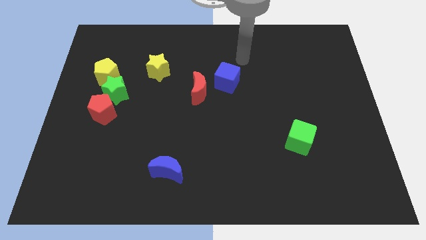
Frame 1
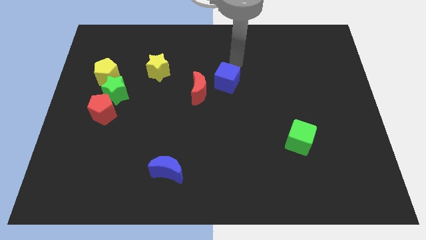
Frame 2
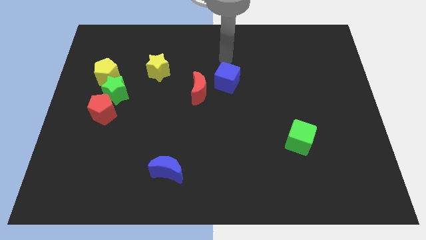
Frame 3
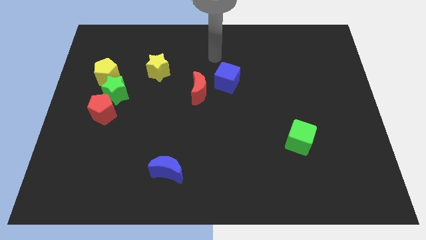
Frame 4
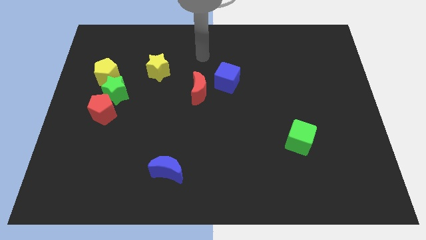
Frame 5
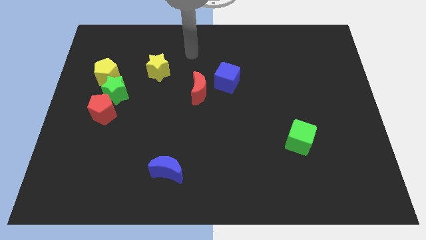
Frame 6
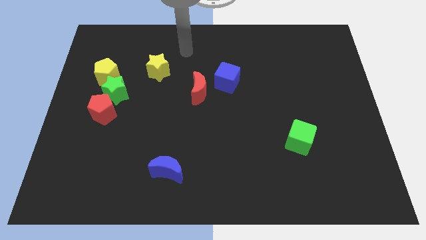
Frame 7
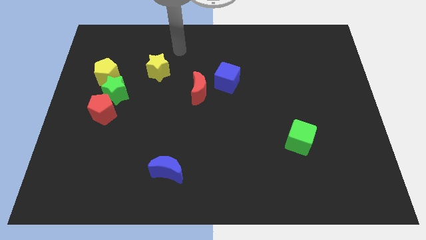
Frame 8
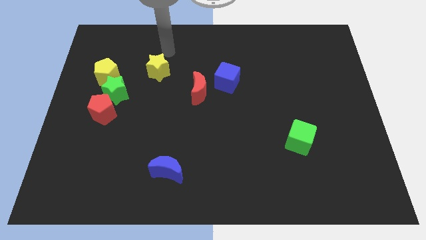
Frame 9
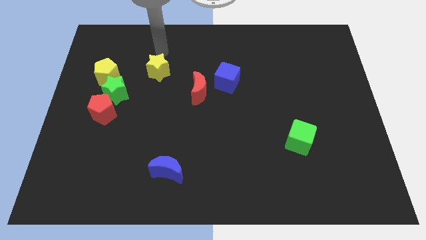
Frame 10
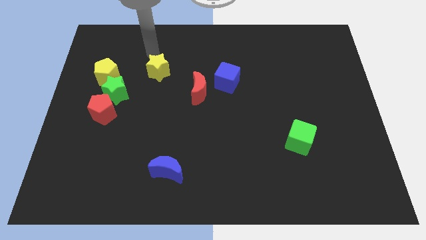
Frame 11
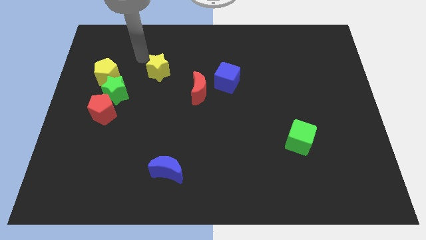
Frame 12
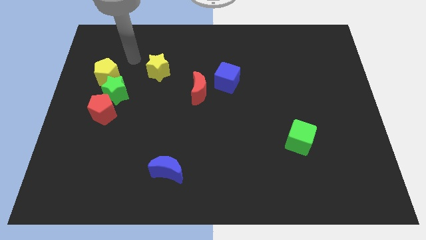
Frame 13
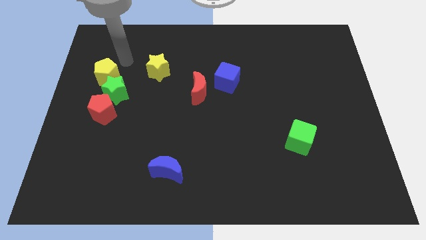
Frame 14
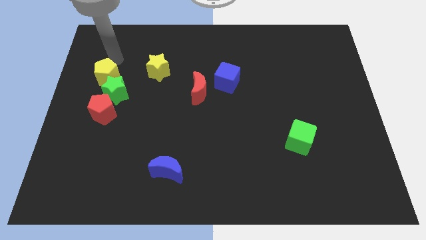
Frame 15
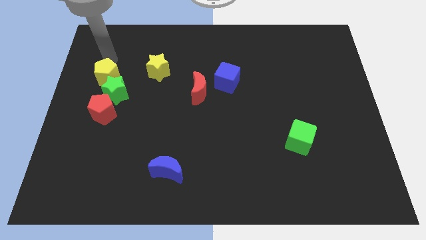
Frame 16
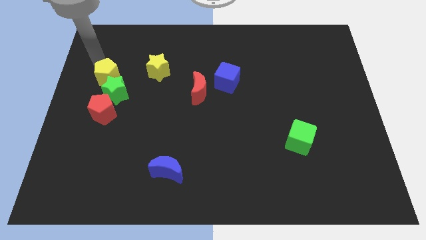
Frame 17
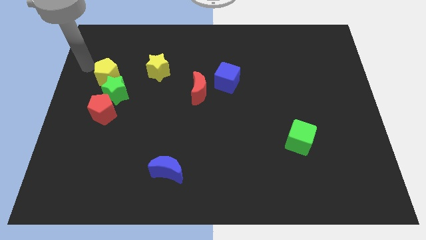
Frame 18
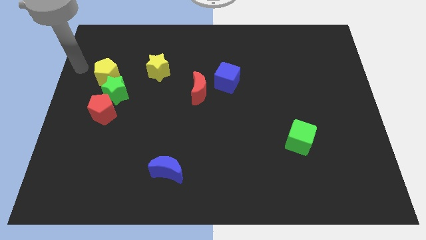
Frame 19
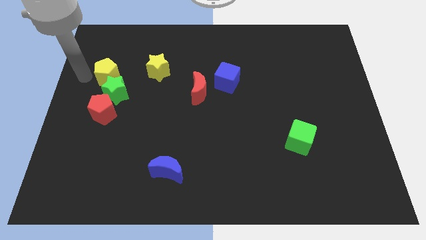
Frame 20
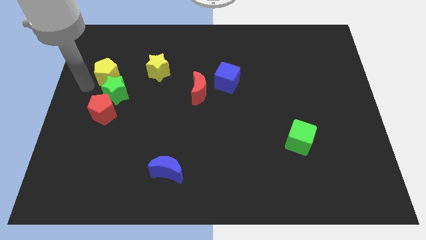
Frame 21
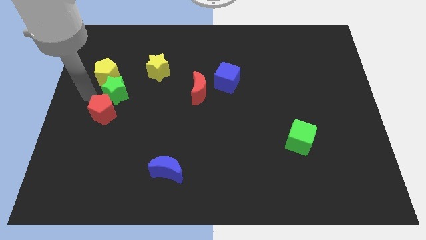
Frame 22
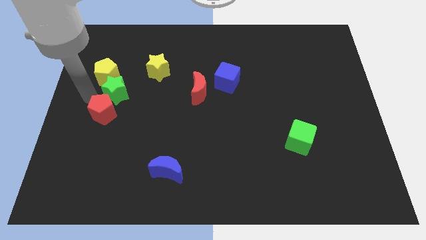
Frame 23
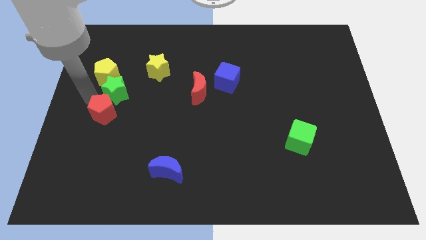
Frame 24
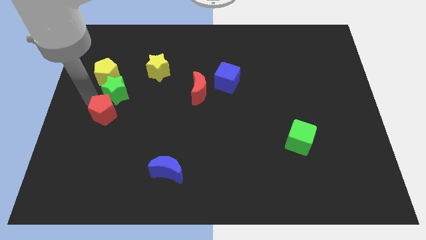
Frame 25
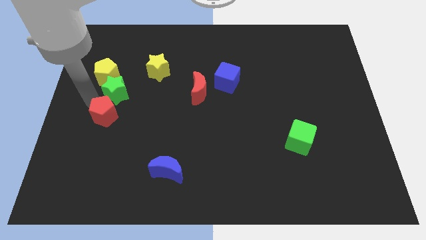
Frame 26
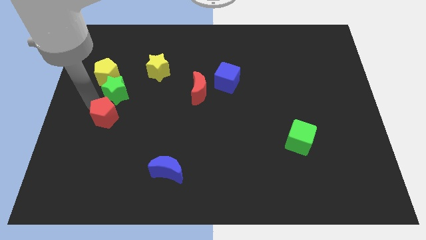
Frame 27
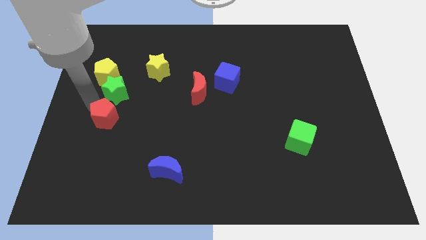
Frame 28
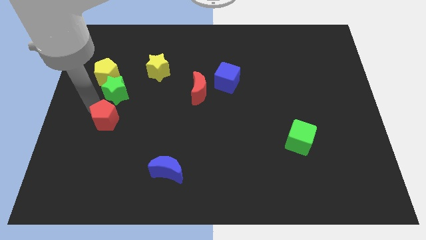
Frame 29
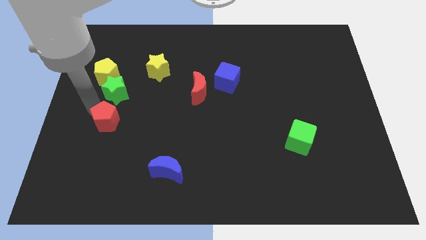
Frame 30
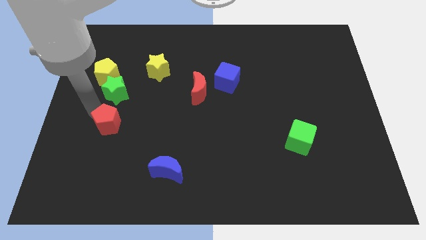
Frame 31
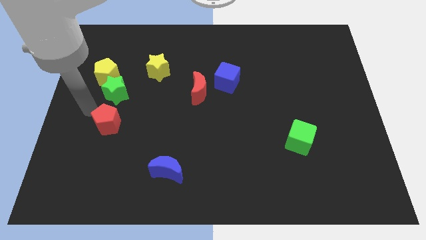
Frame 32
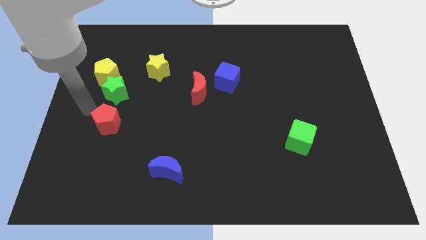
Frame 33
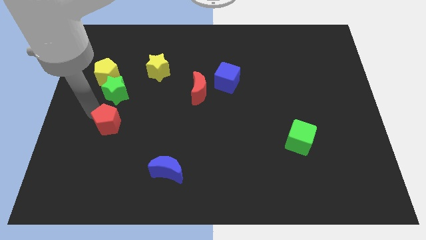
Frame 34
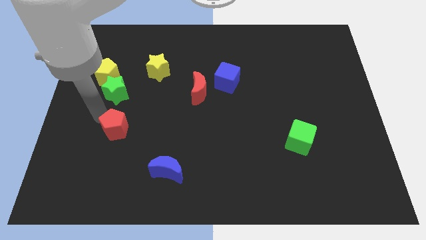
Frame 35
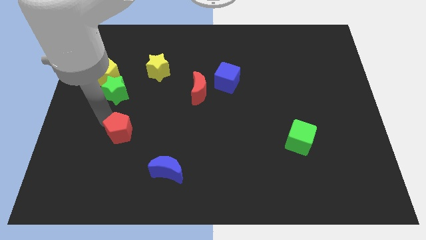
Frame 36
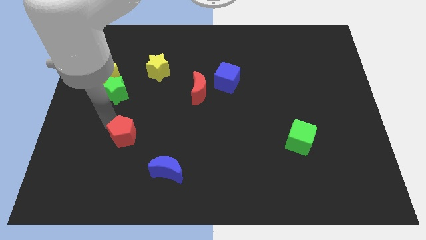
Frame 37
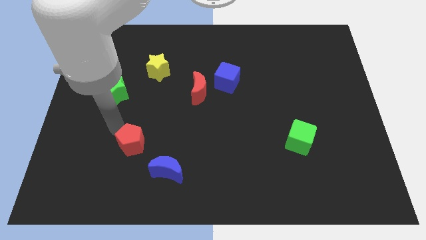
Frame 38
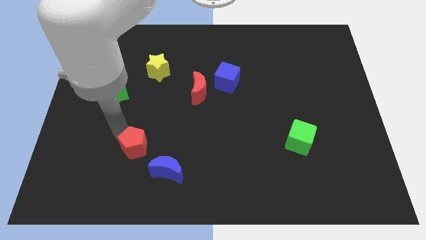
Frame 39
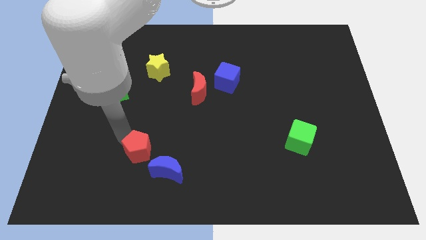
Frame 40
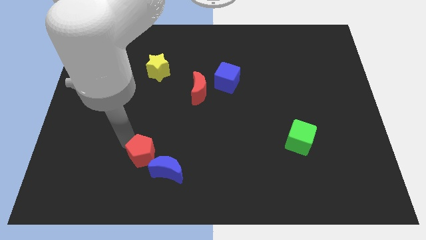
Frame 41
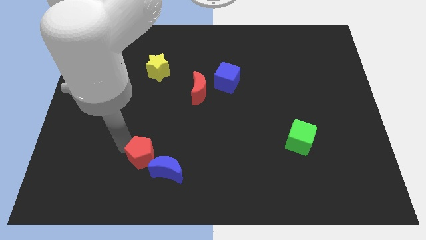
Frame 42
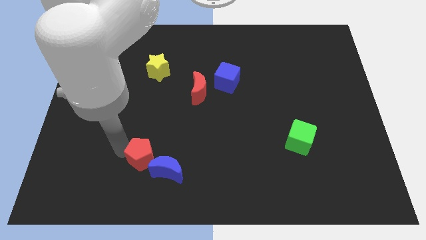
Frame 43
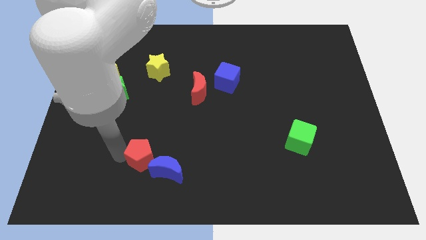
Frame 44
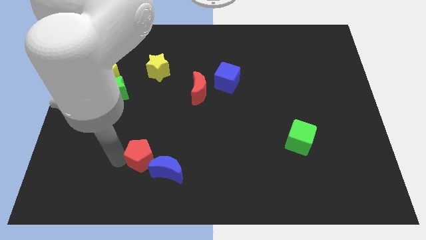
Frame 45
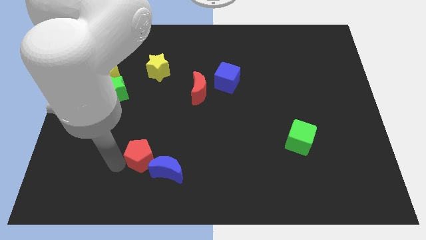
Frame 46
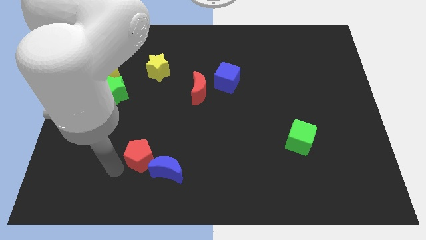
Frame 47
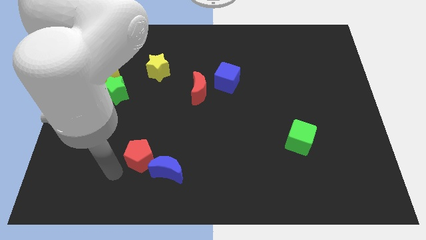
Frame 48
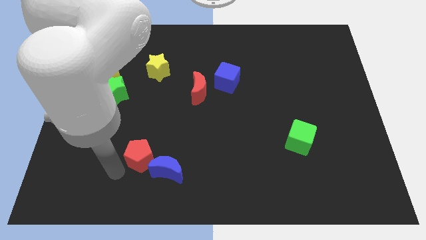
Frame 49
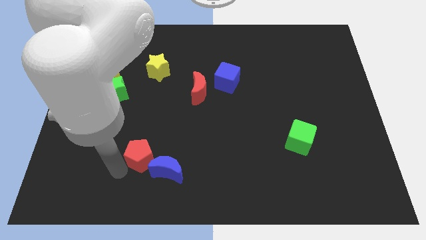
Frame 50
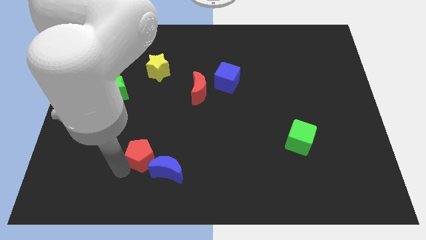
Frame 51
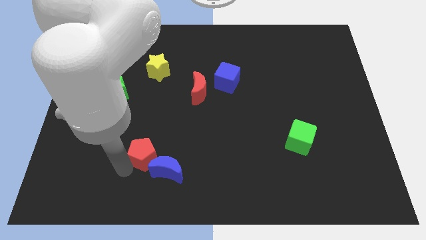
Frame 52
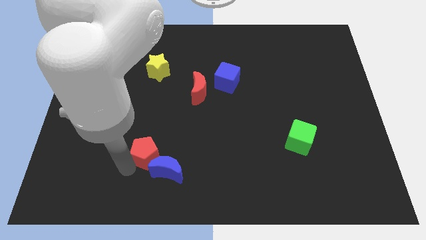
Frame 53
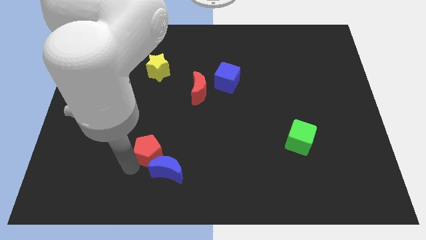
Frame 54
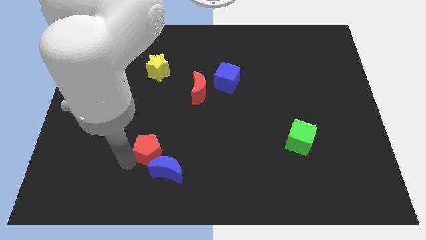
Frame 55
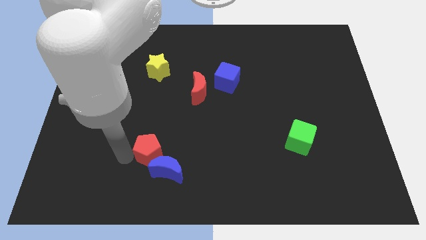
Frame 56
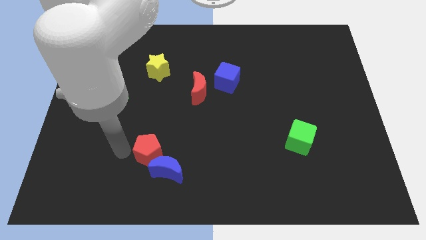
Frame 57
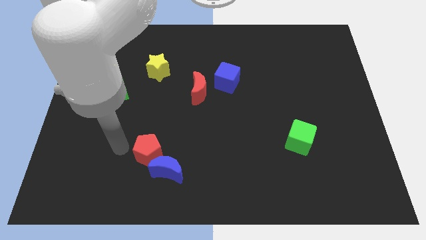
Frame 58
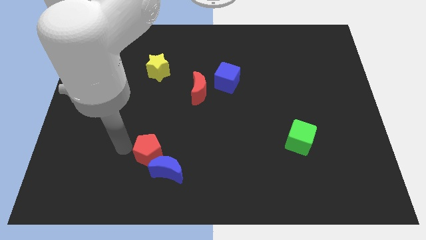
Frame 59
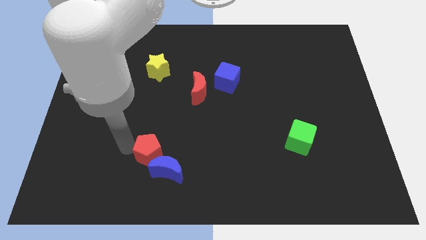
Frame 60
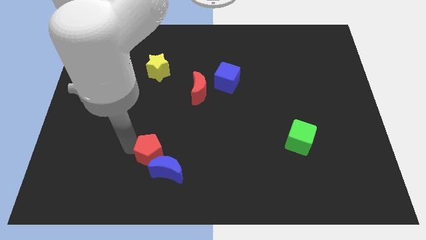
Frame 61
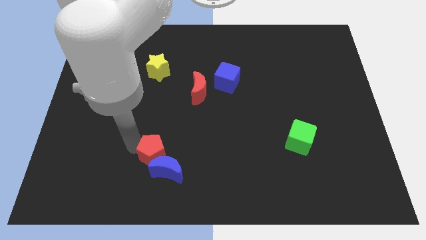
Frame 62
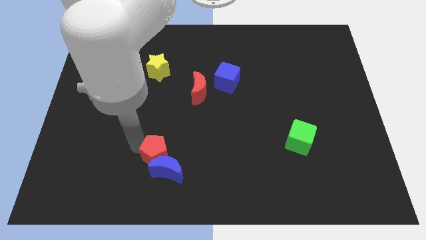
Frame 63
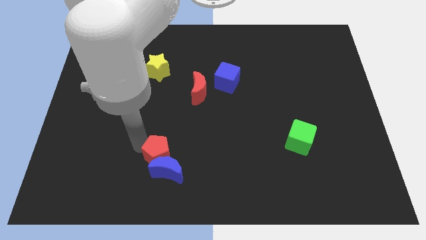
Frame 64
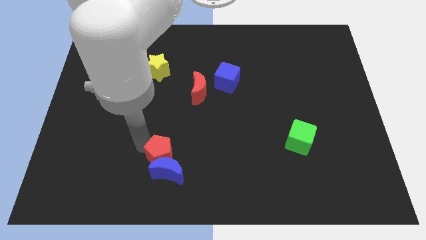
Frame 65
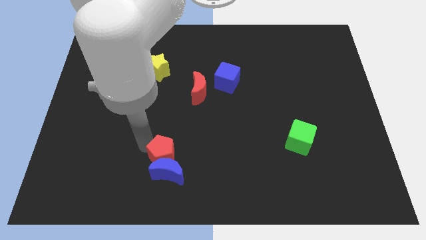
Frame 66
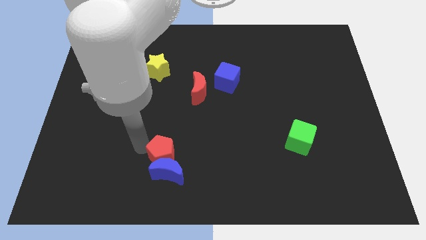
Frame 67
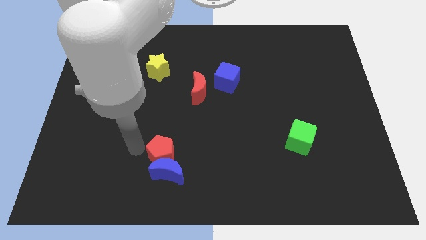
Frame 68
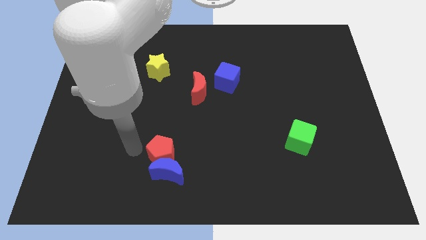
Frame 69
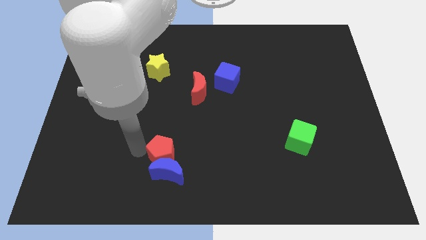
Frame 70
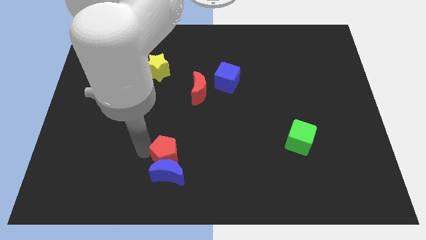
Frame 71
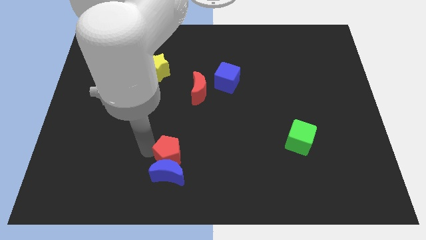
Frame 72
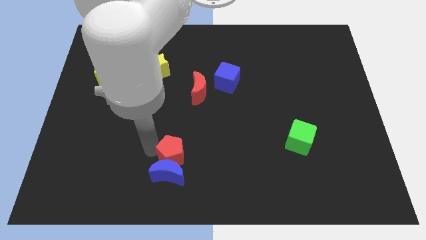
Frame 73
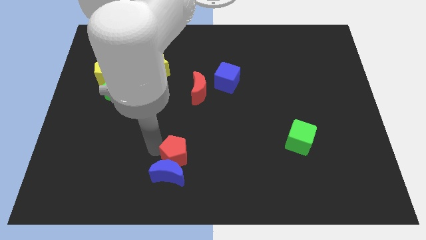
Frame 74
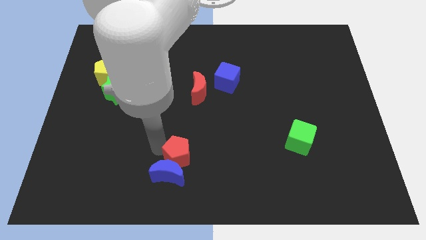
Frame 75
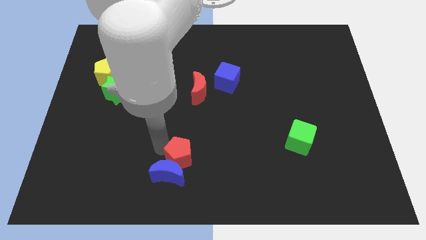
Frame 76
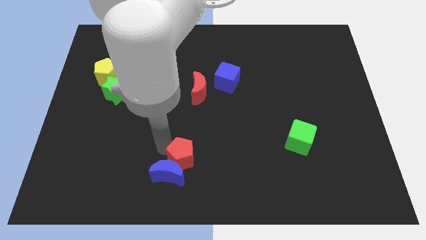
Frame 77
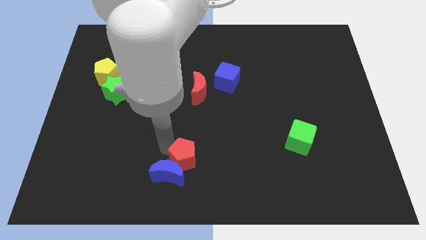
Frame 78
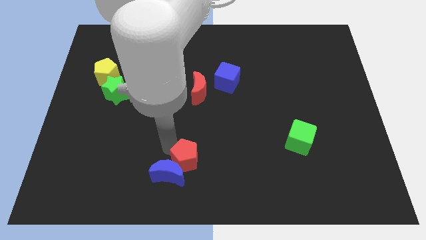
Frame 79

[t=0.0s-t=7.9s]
move the red pentagon to the bottom
